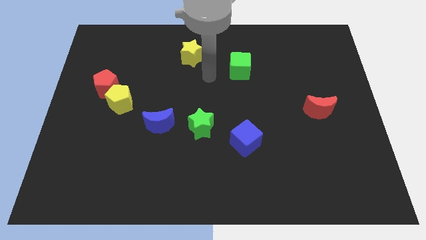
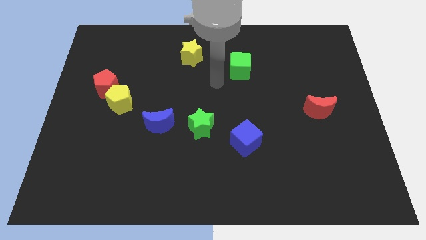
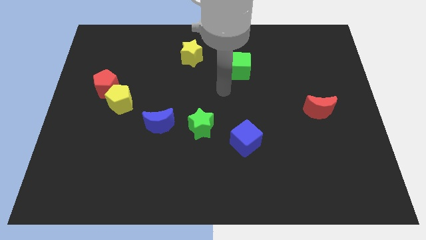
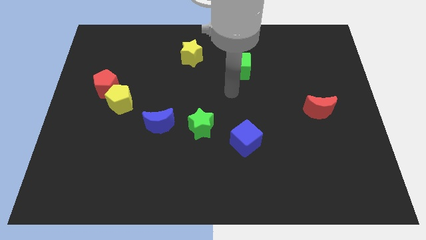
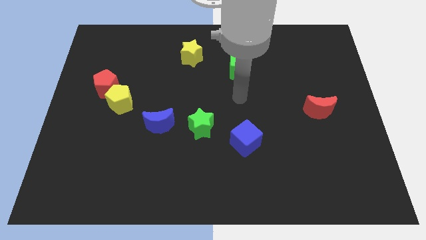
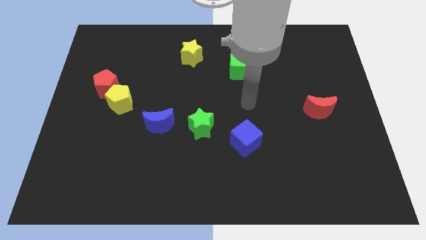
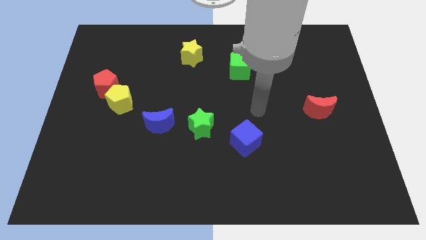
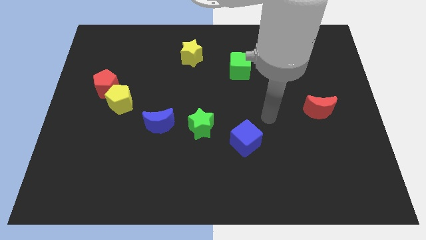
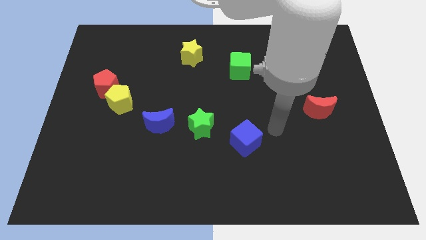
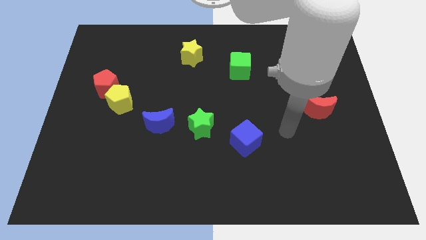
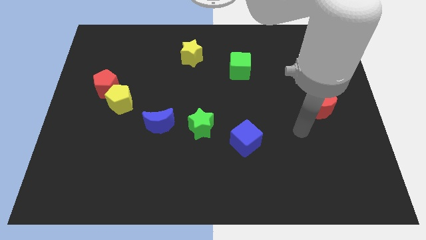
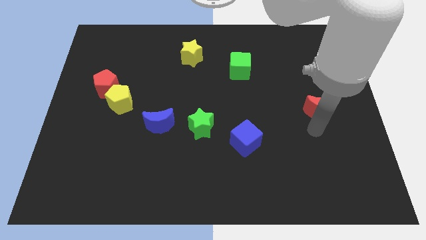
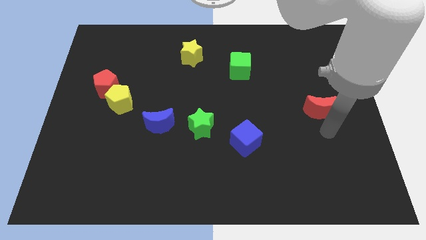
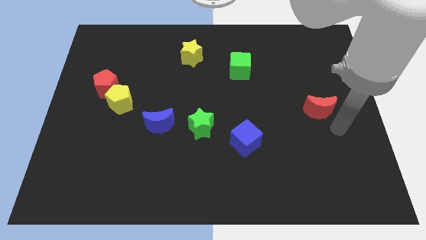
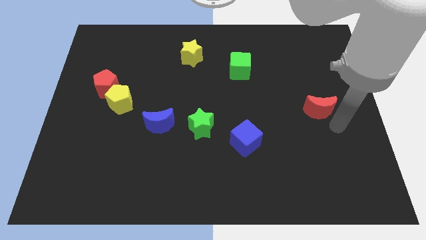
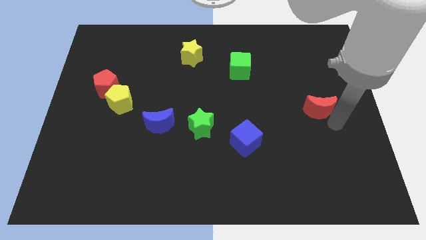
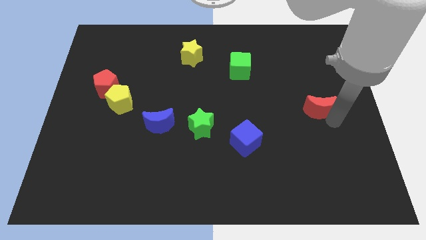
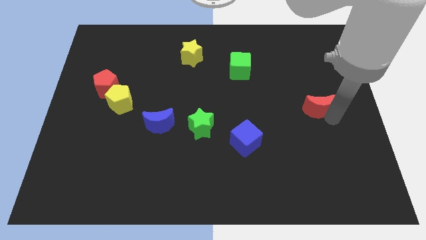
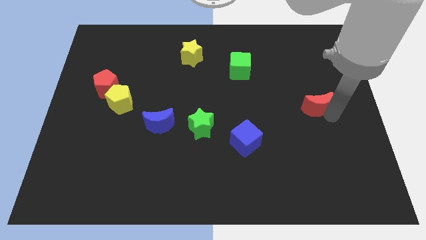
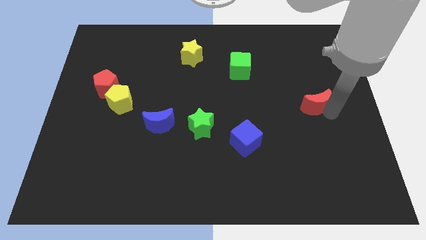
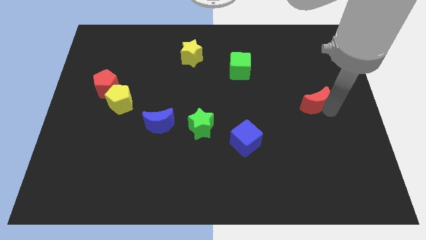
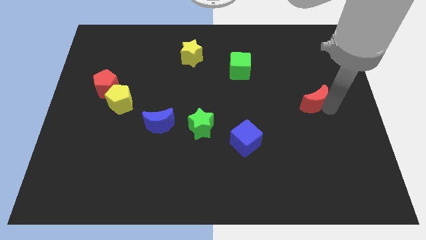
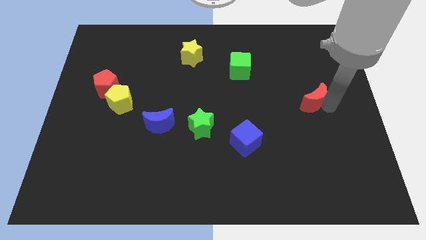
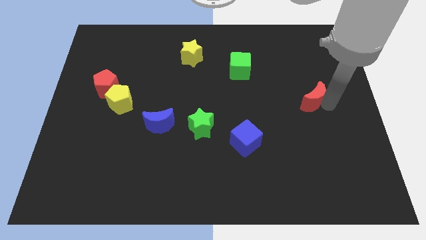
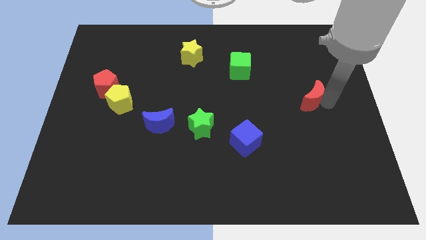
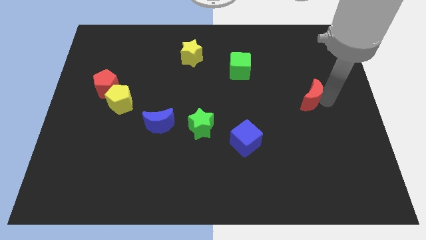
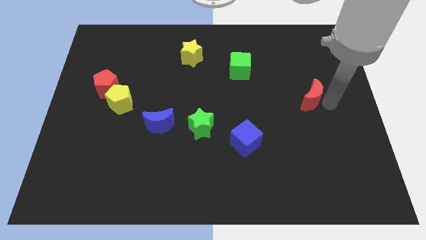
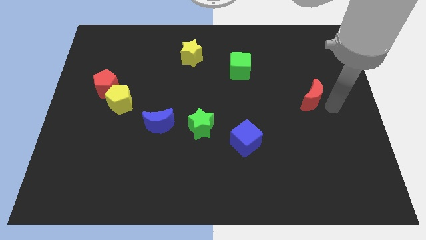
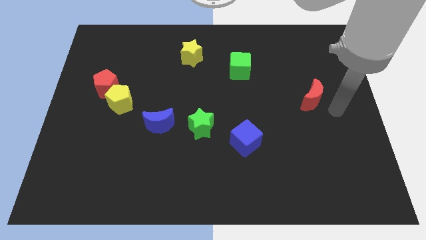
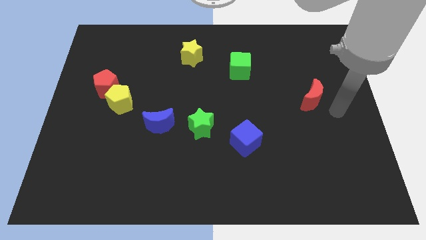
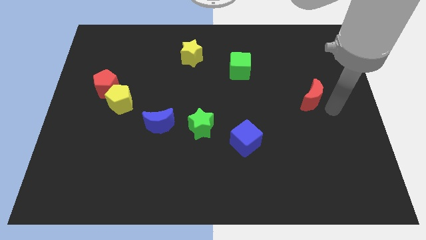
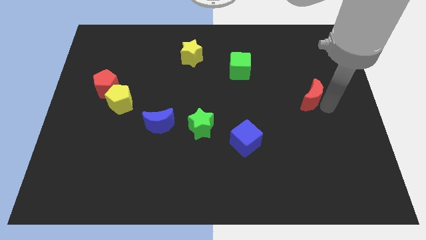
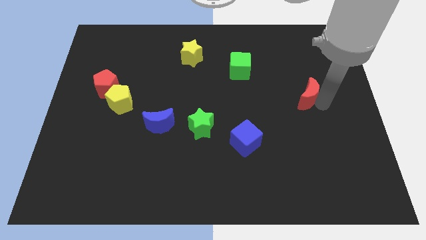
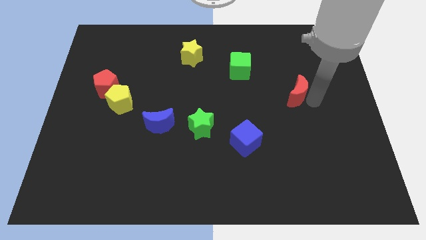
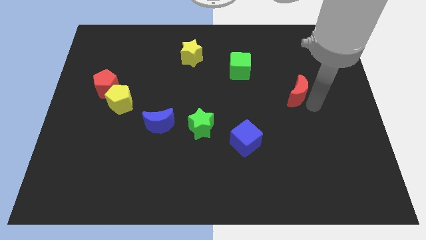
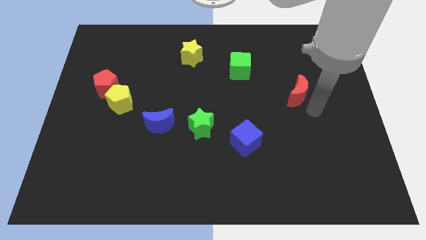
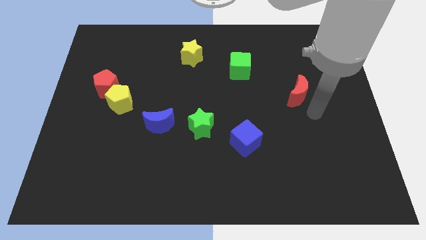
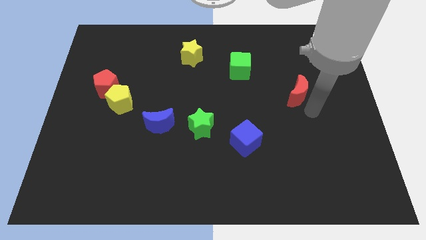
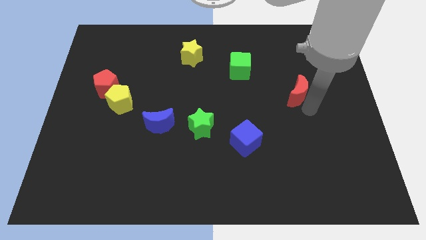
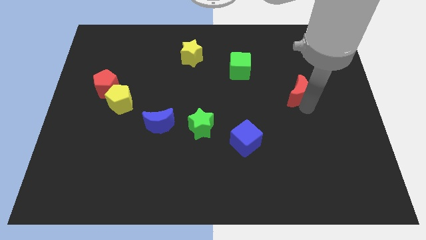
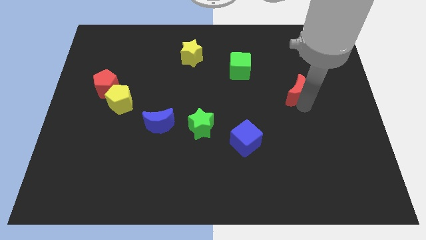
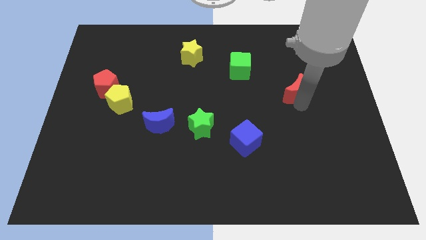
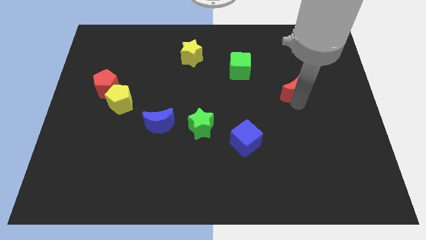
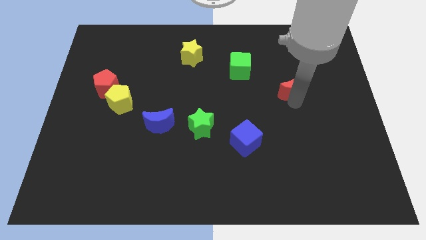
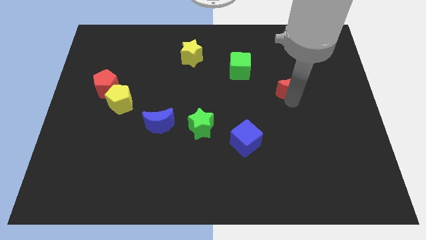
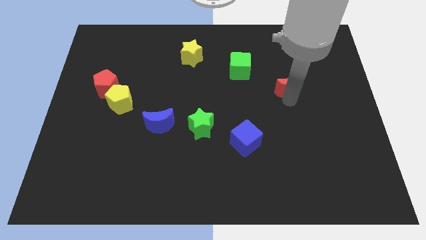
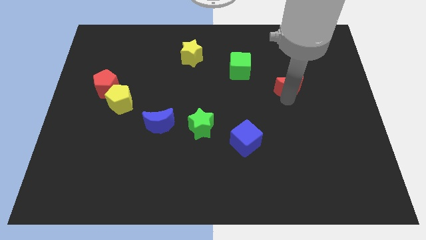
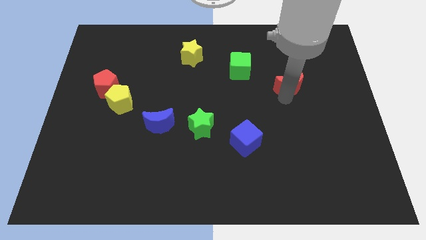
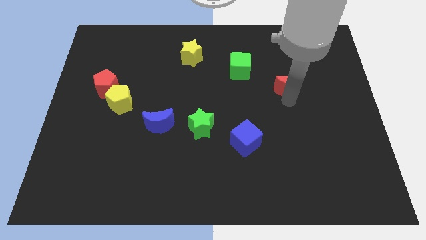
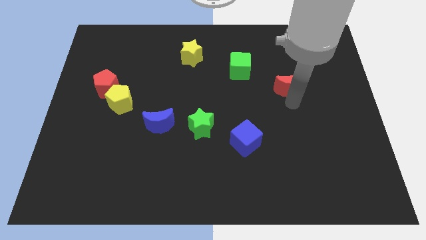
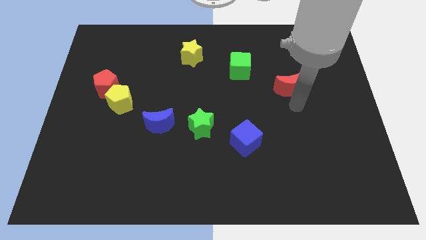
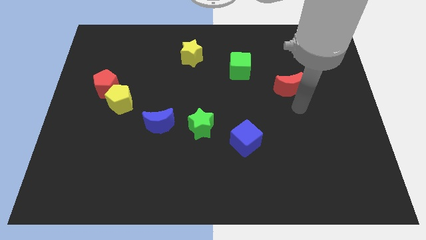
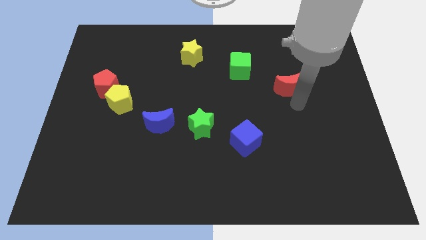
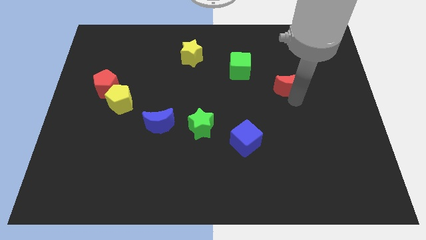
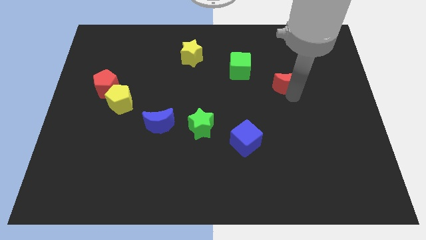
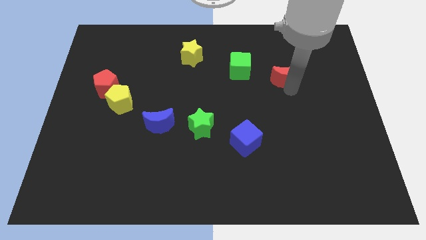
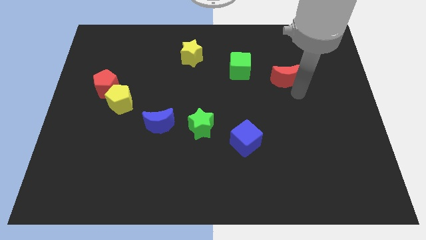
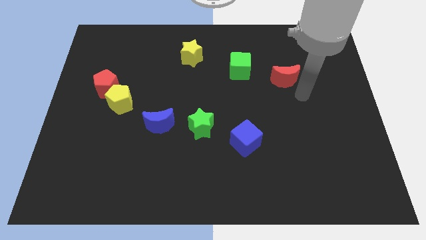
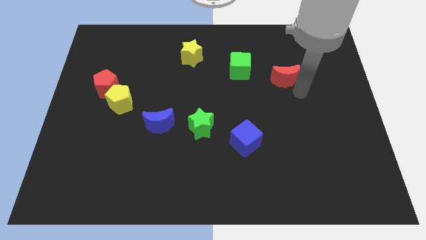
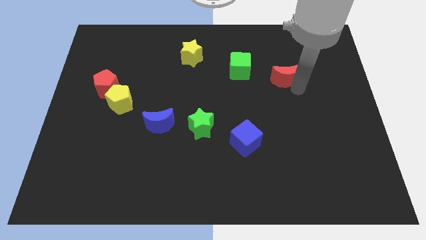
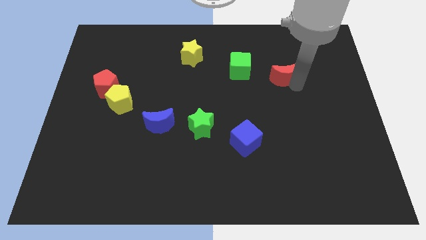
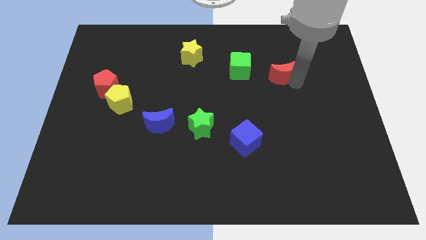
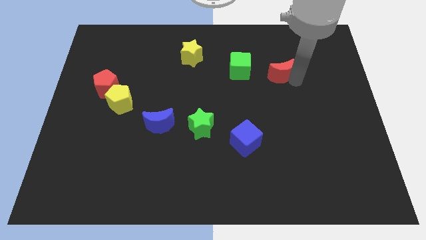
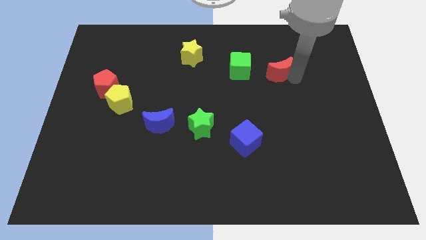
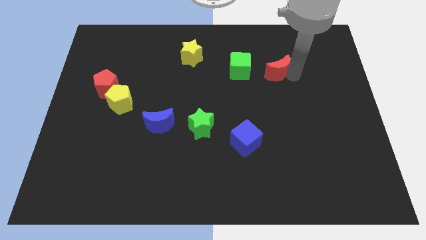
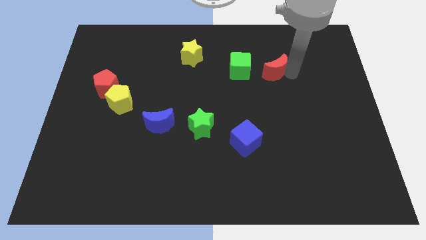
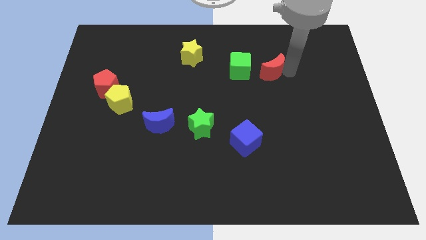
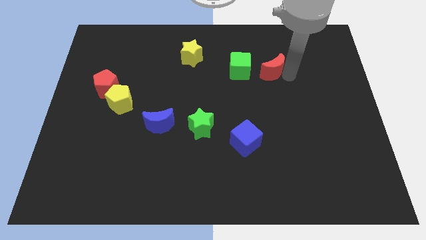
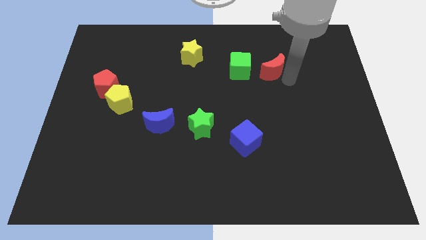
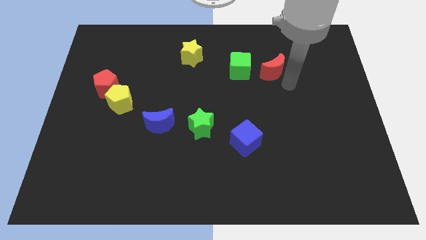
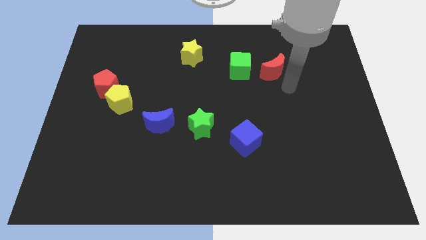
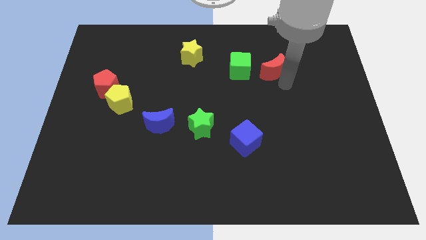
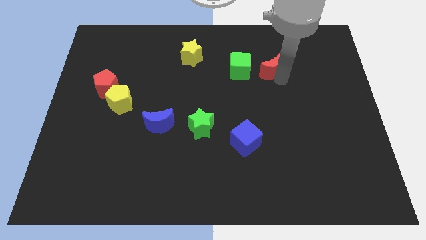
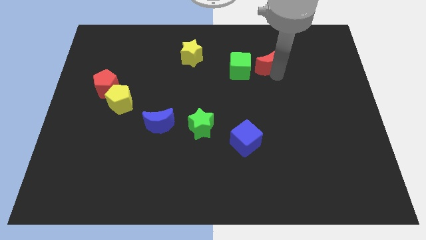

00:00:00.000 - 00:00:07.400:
slide the red moon to the top right side of the green cube

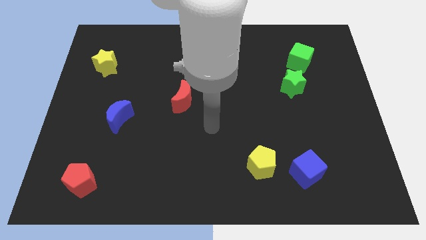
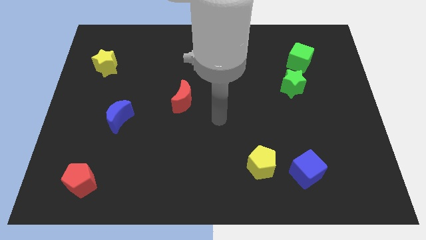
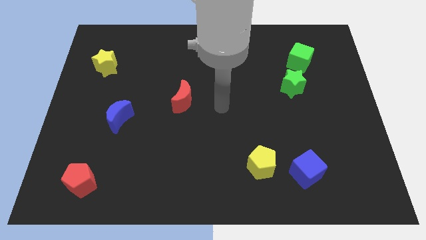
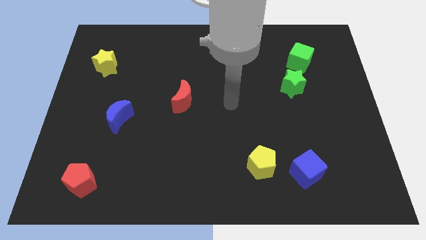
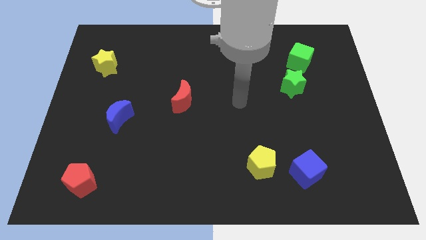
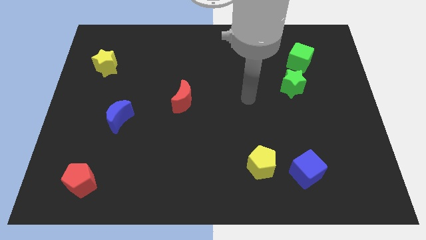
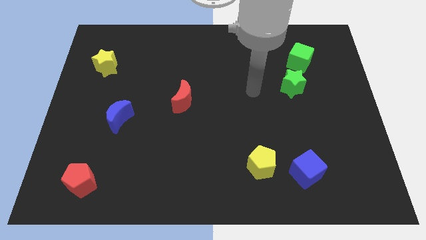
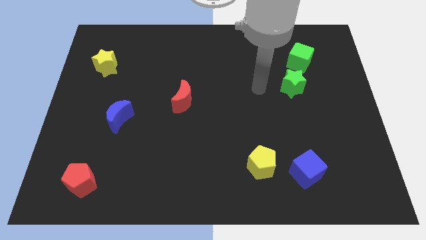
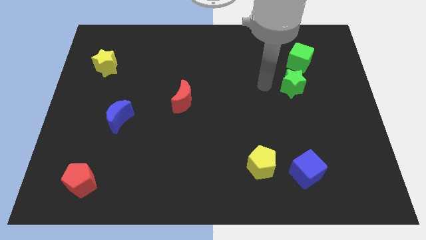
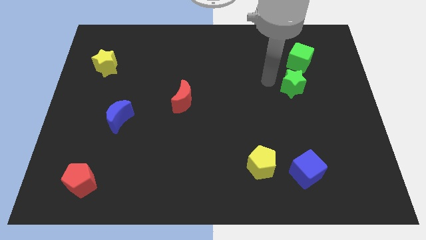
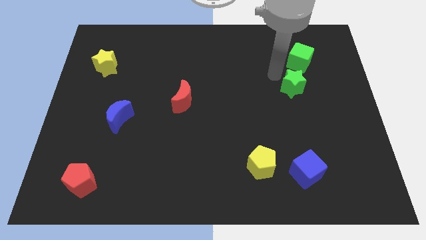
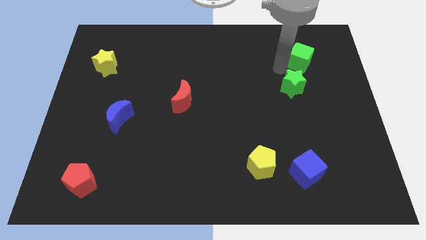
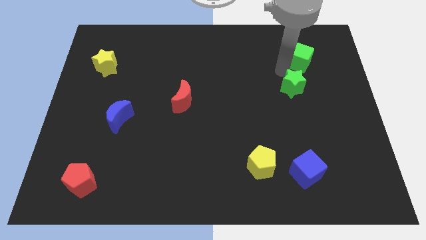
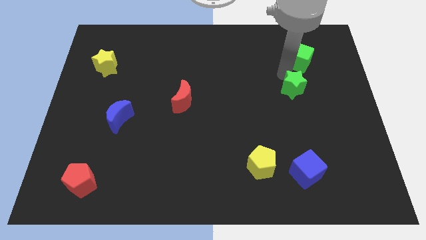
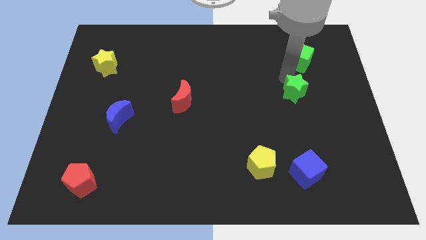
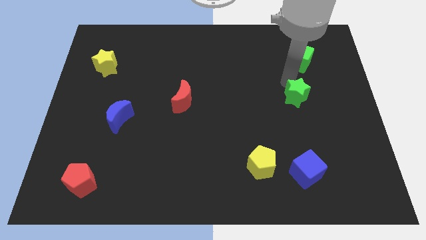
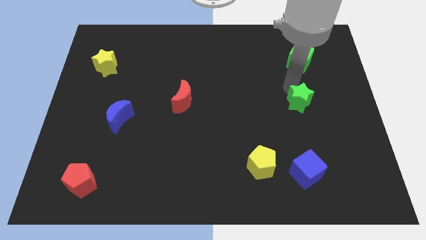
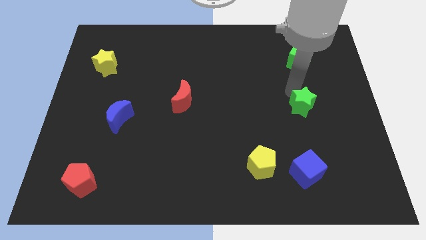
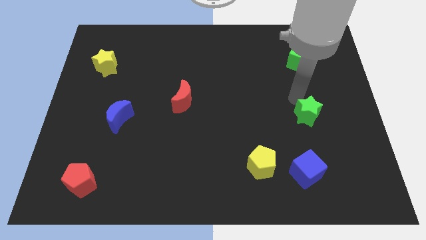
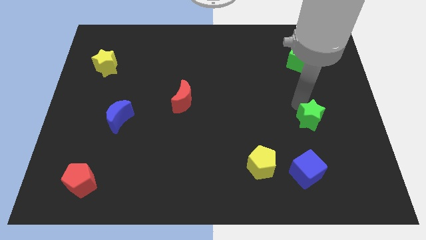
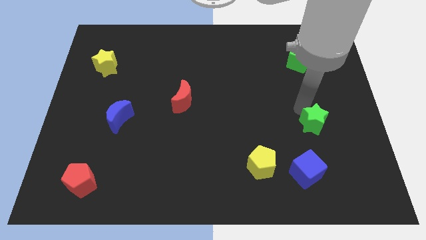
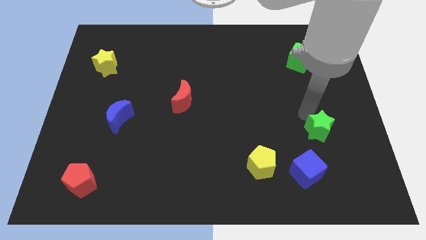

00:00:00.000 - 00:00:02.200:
push the green star to the top right side of the blue cube
